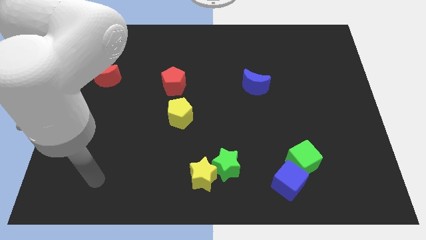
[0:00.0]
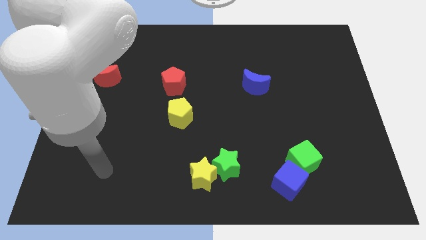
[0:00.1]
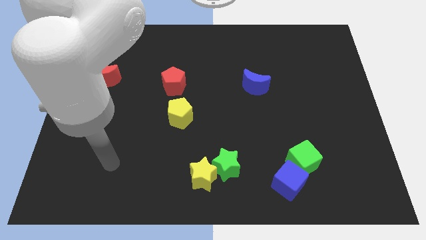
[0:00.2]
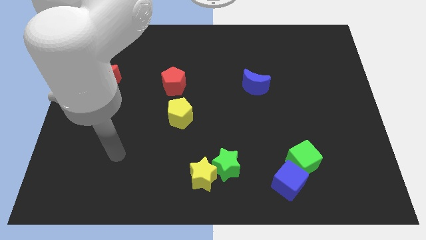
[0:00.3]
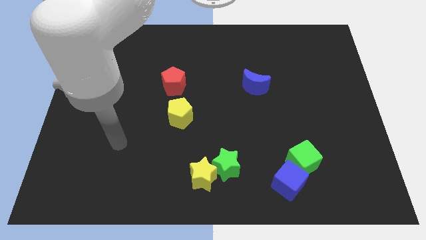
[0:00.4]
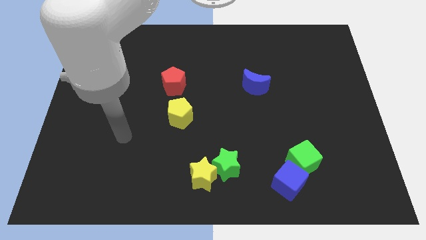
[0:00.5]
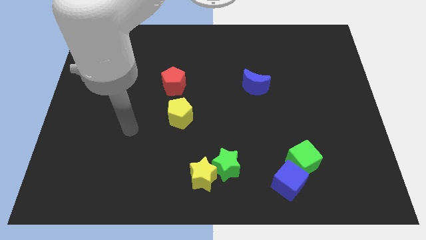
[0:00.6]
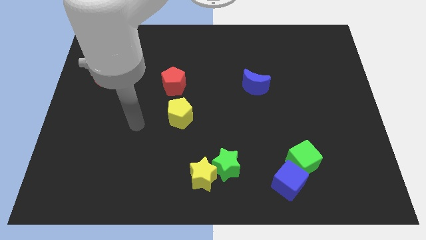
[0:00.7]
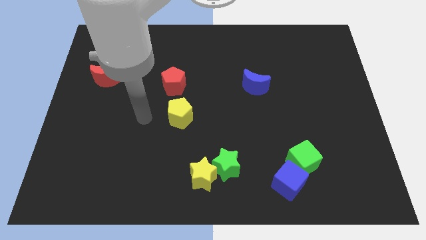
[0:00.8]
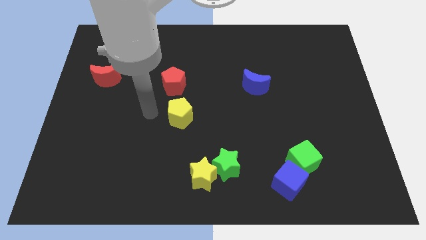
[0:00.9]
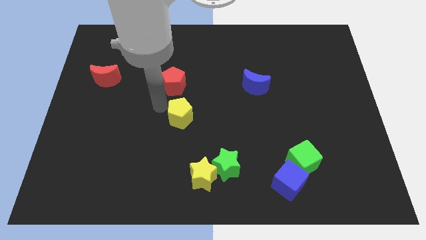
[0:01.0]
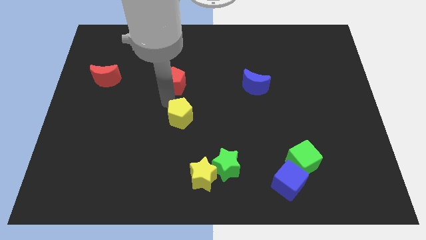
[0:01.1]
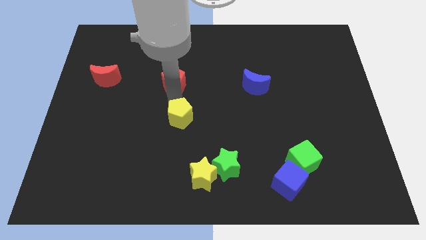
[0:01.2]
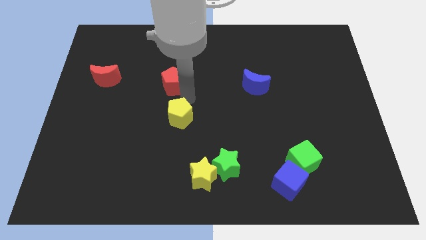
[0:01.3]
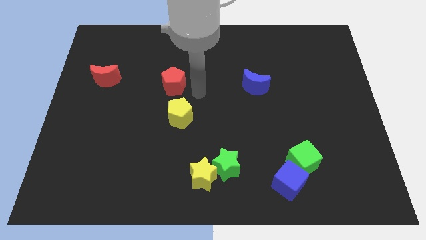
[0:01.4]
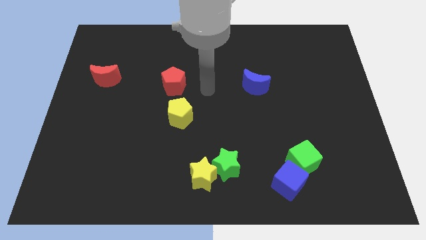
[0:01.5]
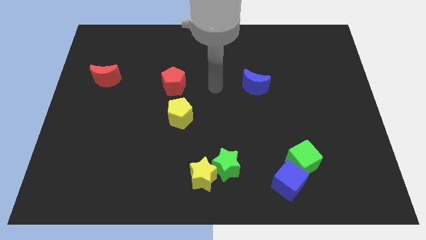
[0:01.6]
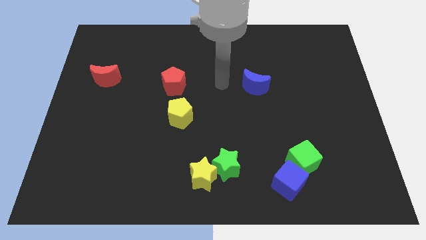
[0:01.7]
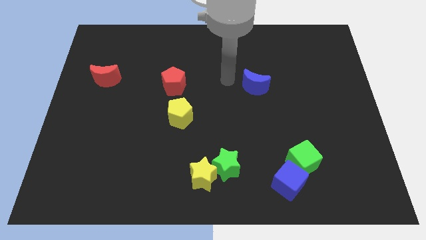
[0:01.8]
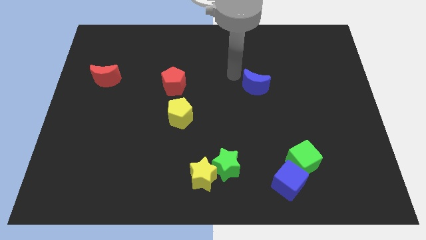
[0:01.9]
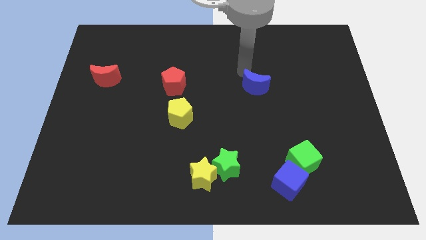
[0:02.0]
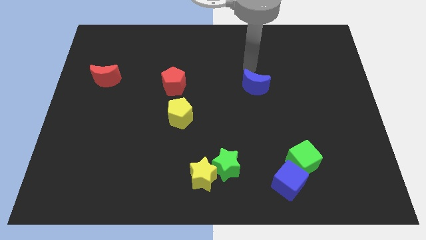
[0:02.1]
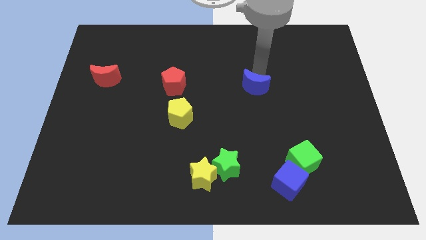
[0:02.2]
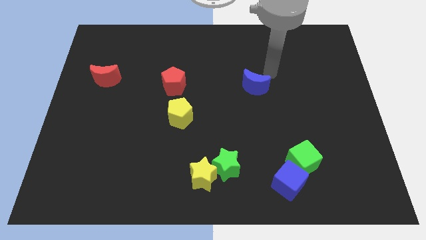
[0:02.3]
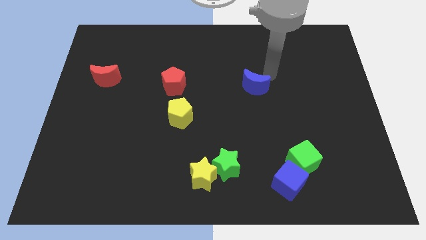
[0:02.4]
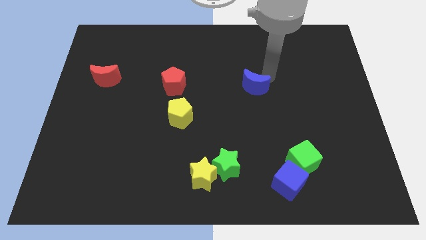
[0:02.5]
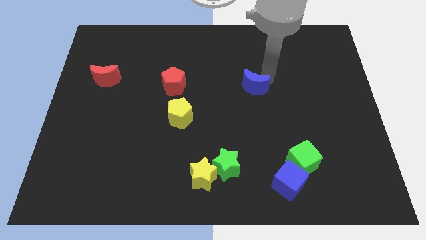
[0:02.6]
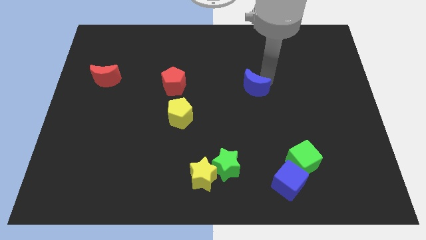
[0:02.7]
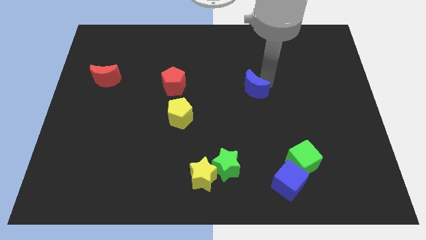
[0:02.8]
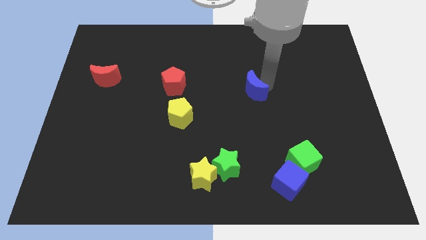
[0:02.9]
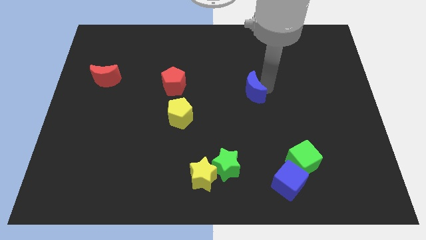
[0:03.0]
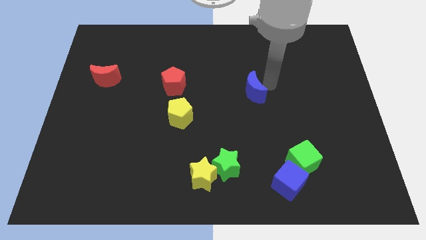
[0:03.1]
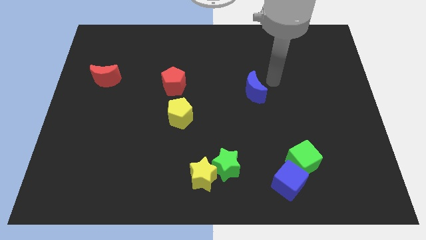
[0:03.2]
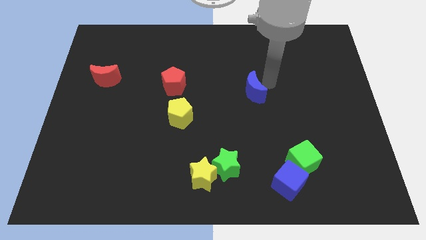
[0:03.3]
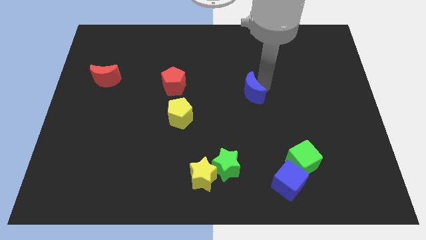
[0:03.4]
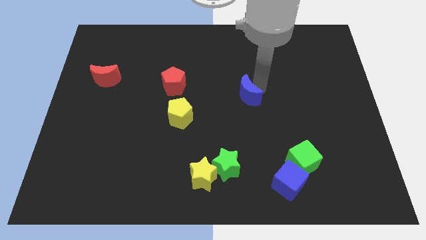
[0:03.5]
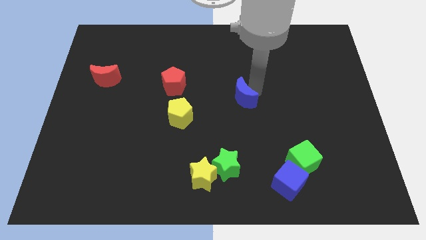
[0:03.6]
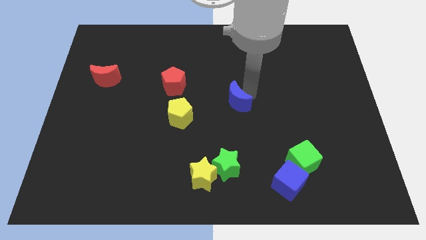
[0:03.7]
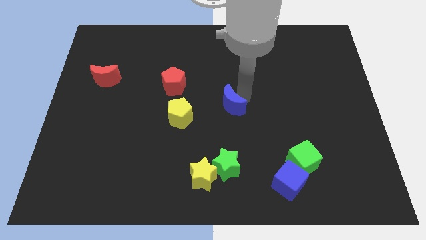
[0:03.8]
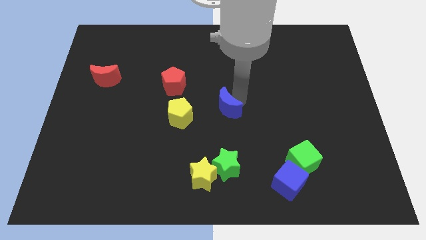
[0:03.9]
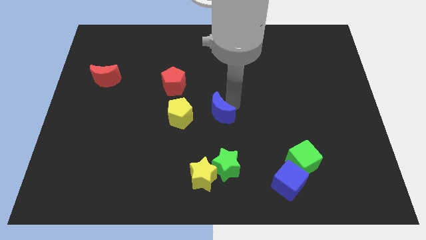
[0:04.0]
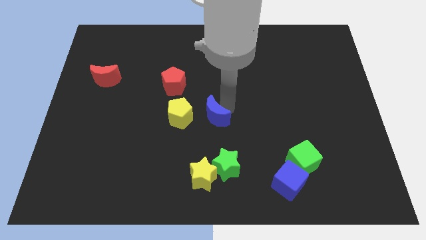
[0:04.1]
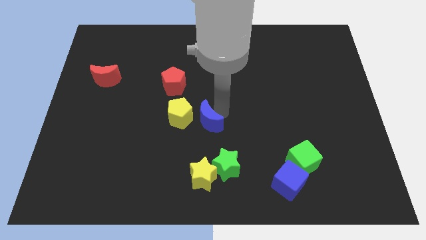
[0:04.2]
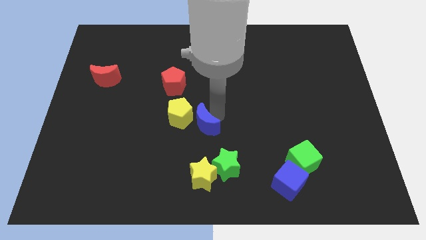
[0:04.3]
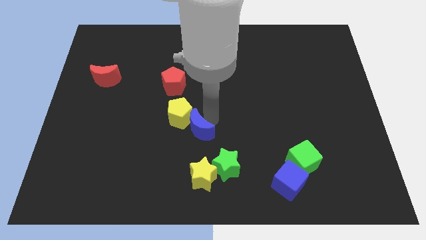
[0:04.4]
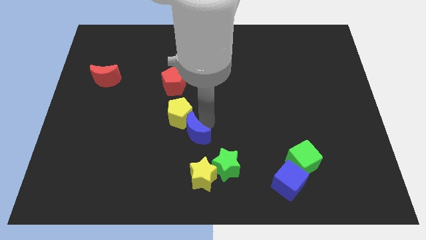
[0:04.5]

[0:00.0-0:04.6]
slide the blue moon downwards and left diagonally

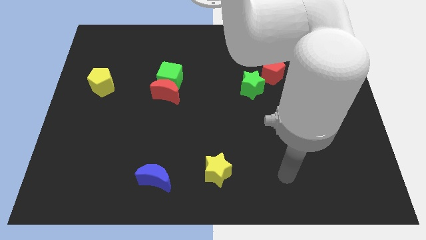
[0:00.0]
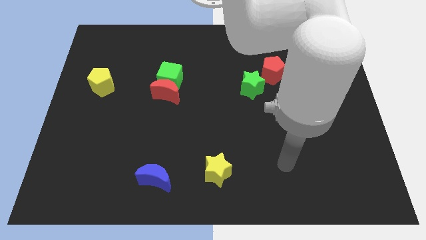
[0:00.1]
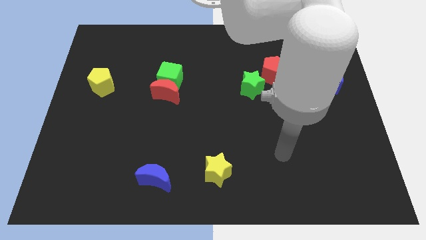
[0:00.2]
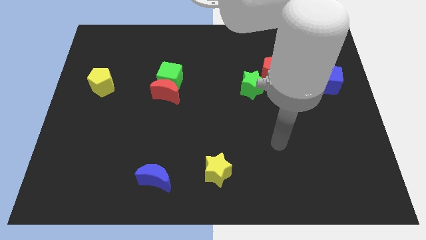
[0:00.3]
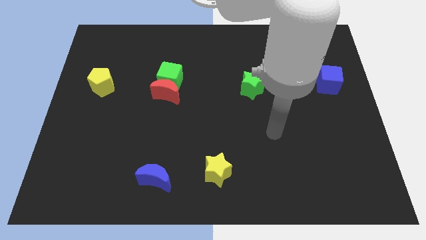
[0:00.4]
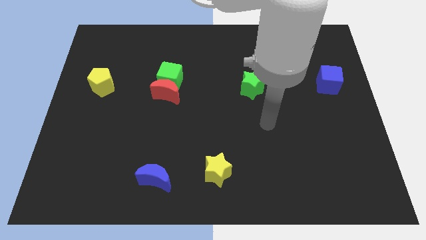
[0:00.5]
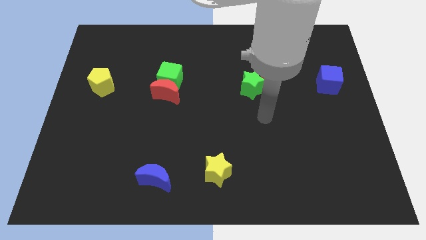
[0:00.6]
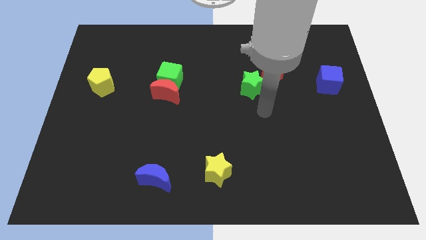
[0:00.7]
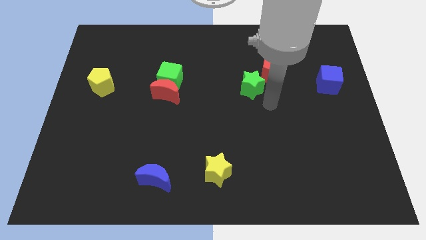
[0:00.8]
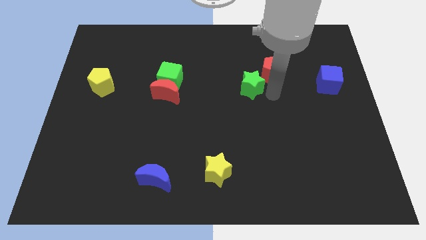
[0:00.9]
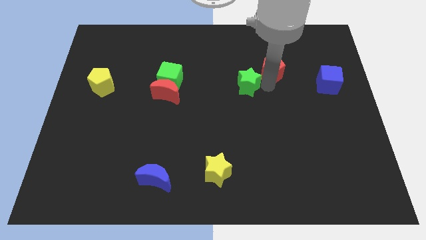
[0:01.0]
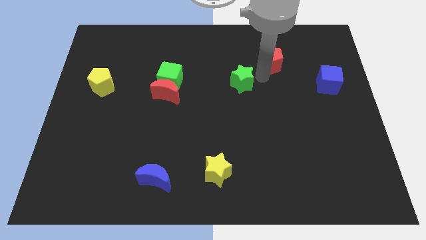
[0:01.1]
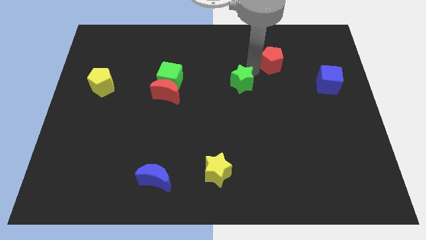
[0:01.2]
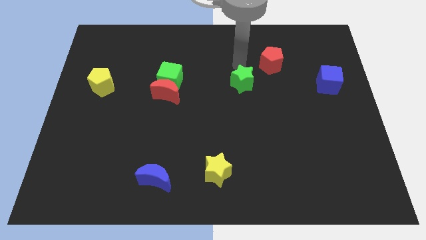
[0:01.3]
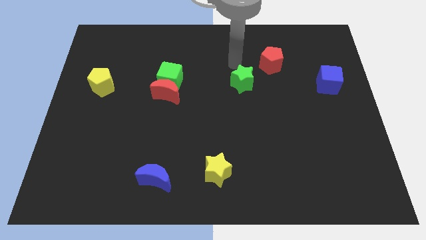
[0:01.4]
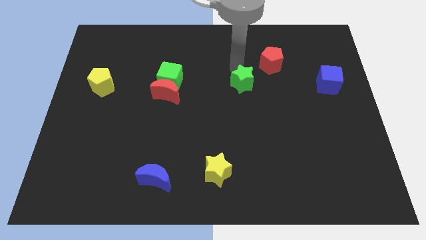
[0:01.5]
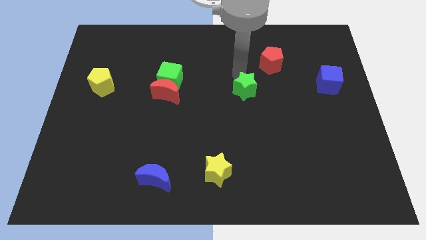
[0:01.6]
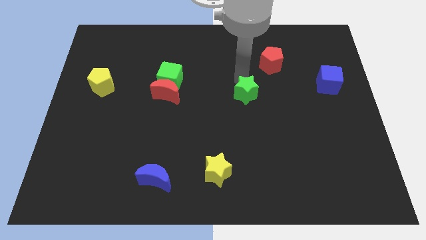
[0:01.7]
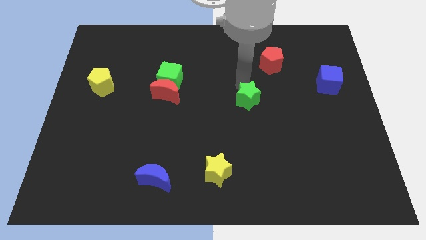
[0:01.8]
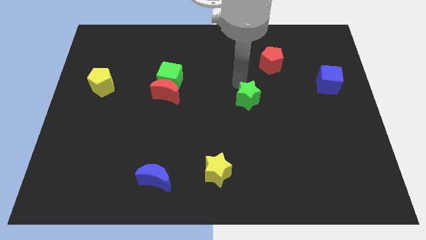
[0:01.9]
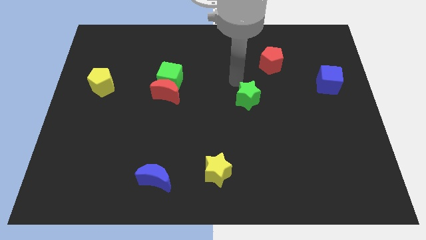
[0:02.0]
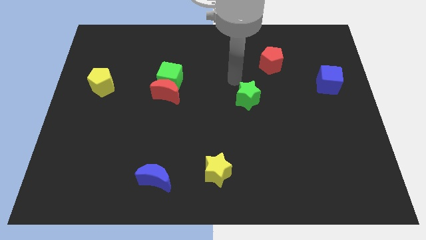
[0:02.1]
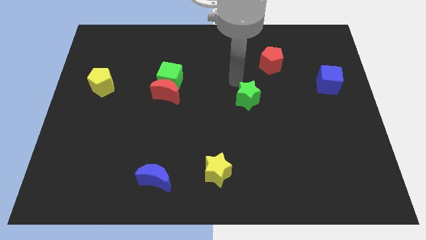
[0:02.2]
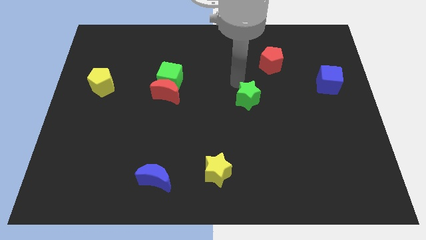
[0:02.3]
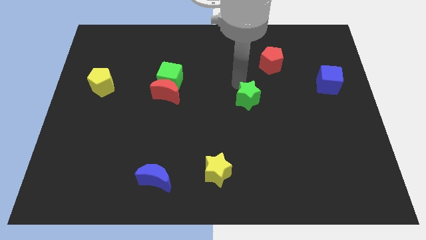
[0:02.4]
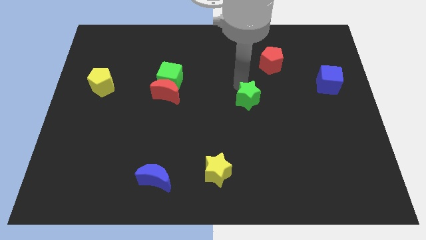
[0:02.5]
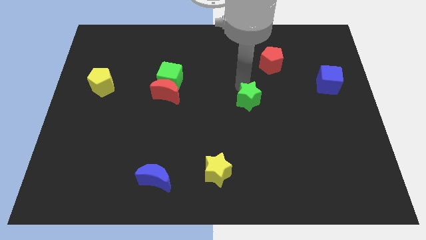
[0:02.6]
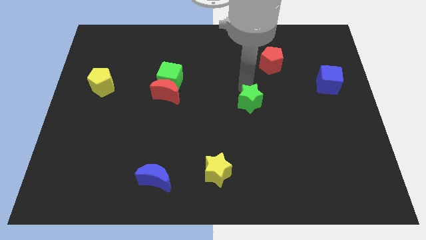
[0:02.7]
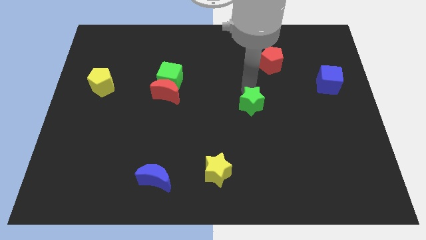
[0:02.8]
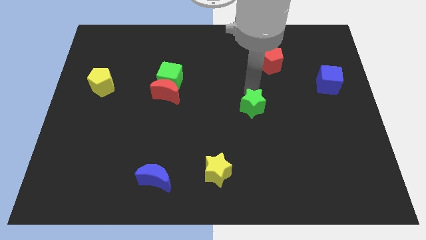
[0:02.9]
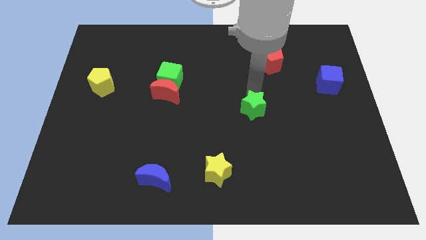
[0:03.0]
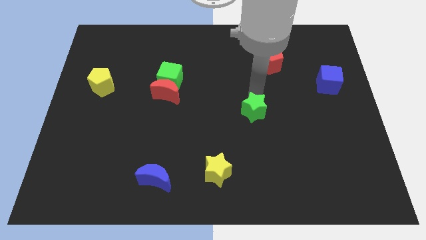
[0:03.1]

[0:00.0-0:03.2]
slide the green star down a little bit

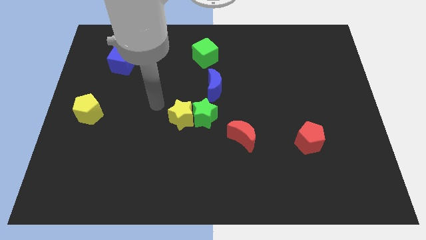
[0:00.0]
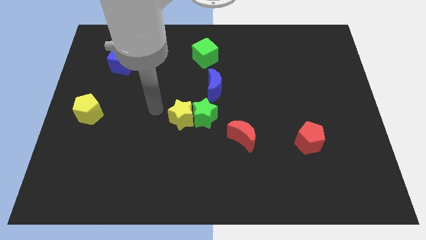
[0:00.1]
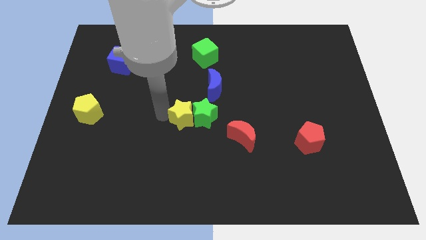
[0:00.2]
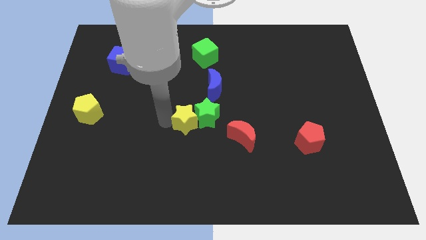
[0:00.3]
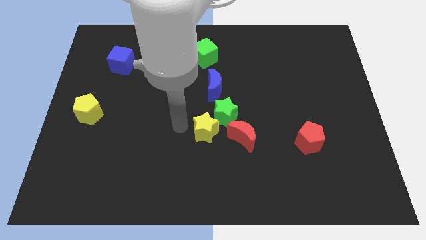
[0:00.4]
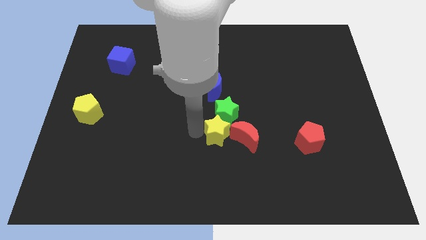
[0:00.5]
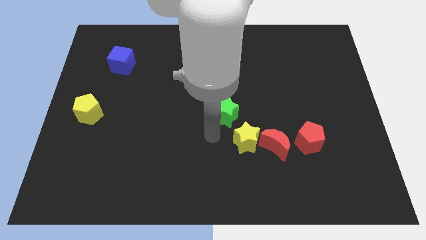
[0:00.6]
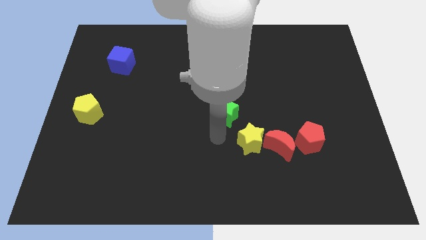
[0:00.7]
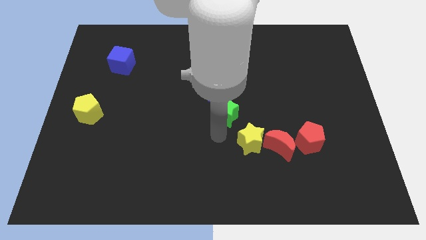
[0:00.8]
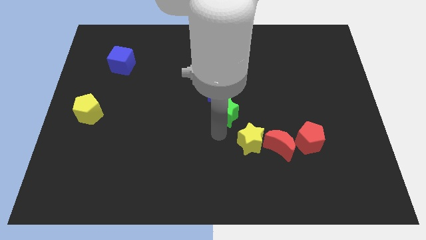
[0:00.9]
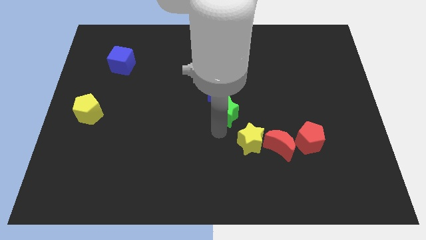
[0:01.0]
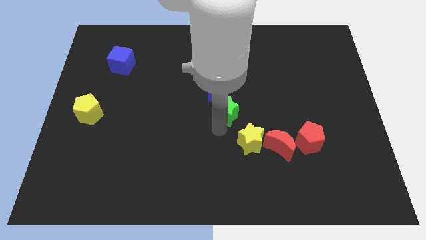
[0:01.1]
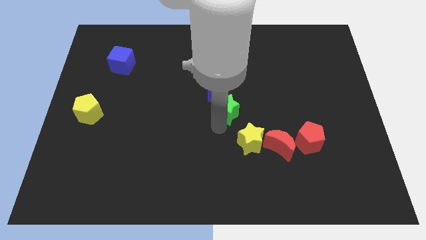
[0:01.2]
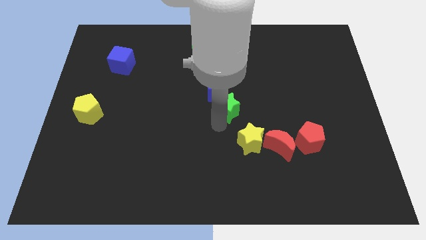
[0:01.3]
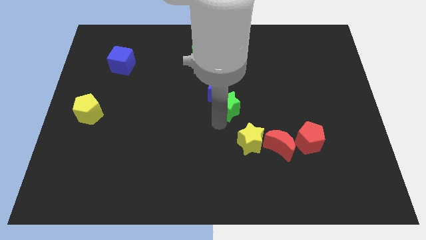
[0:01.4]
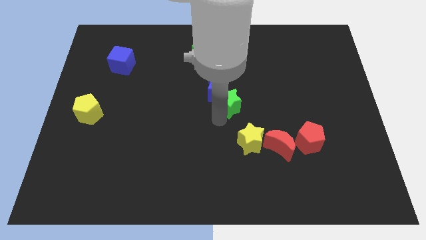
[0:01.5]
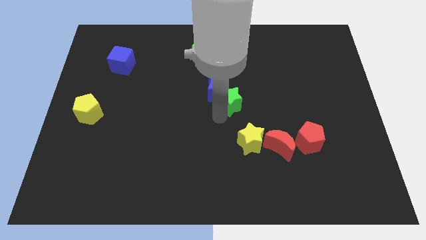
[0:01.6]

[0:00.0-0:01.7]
slide the green star a little up and right
